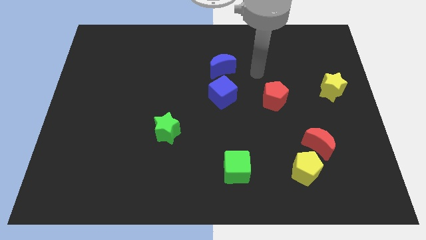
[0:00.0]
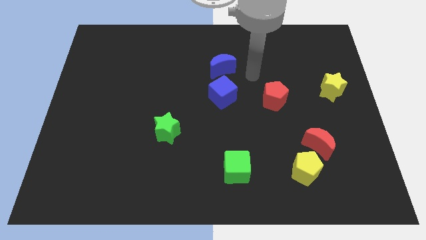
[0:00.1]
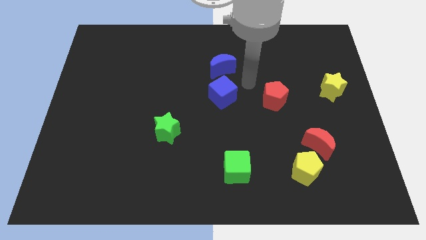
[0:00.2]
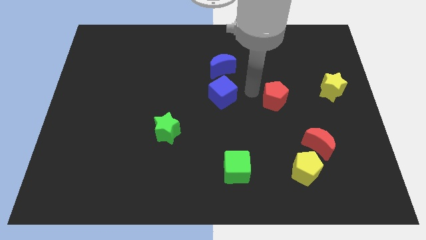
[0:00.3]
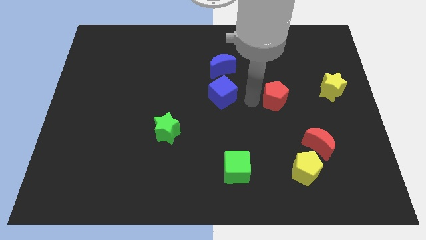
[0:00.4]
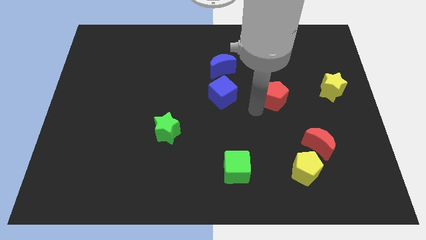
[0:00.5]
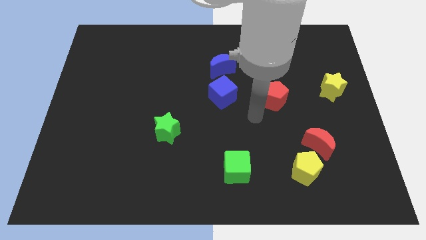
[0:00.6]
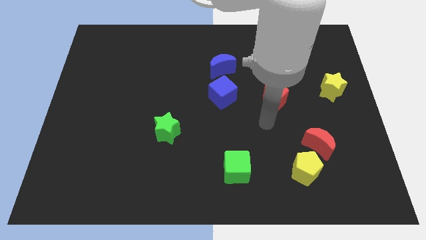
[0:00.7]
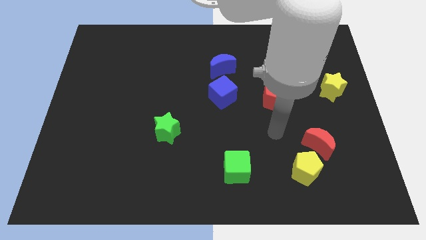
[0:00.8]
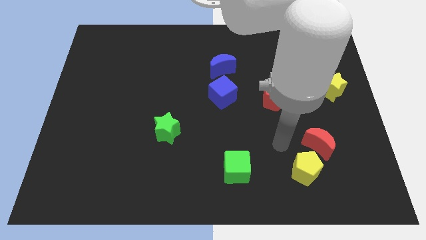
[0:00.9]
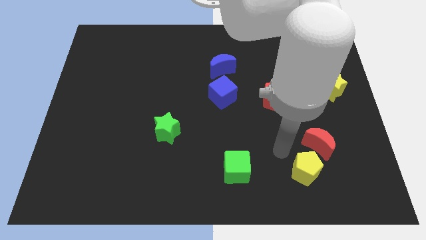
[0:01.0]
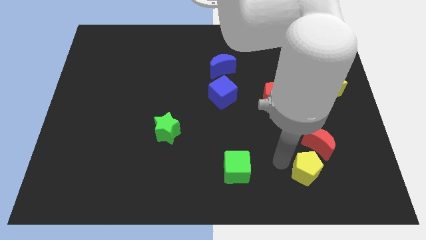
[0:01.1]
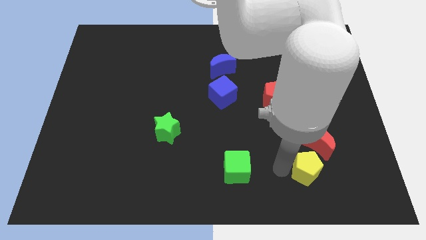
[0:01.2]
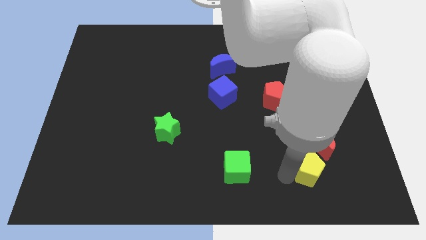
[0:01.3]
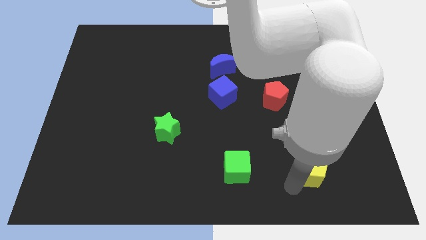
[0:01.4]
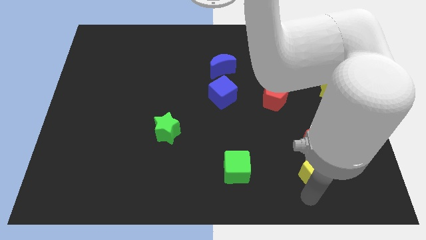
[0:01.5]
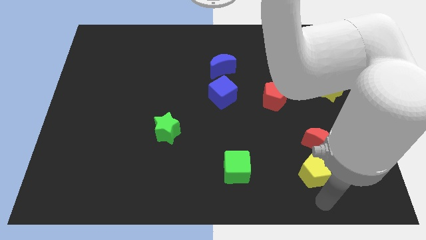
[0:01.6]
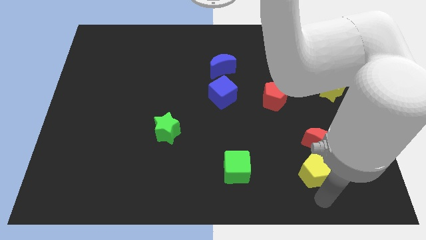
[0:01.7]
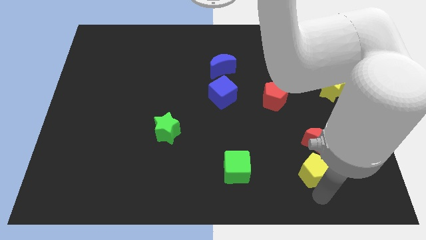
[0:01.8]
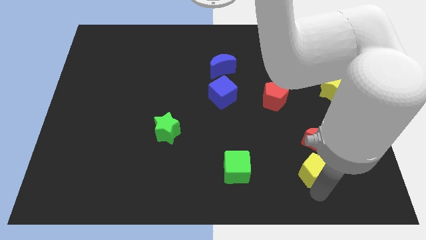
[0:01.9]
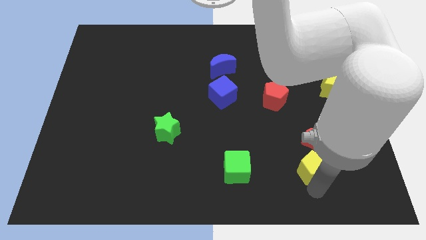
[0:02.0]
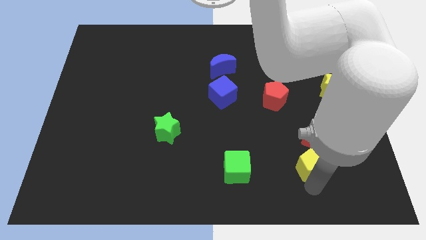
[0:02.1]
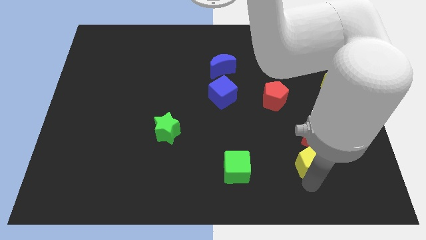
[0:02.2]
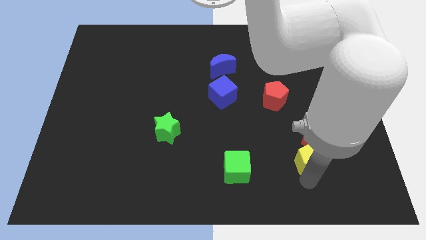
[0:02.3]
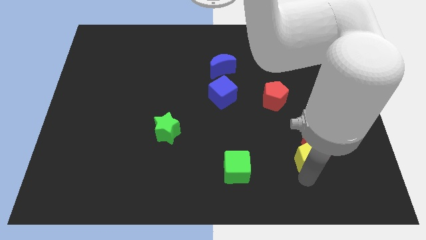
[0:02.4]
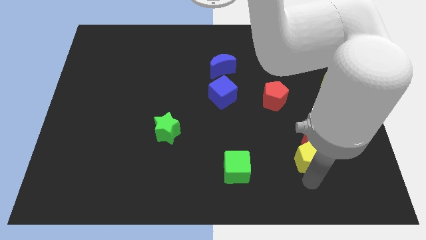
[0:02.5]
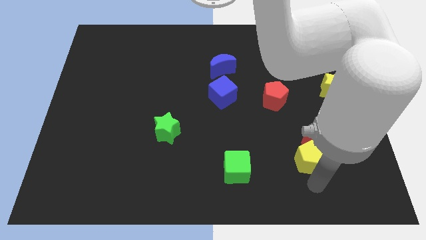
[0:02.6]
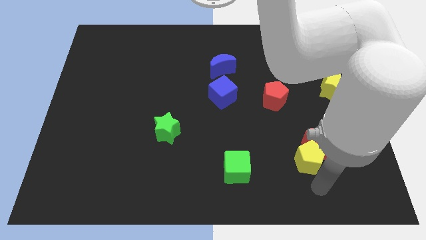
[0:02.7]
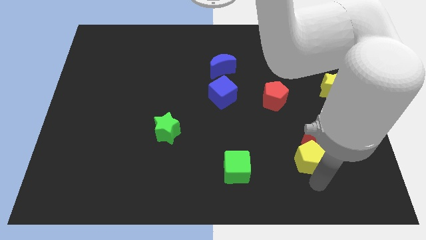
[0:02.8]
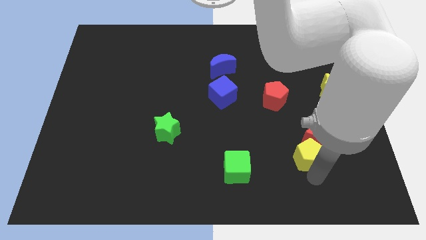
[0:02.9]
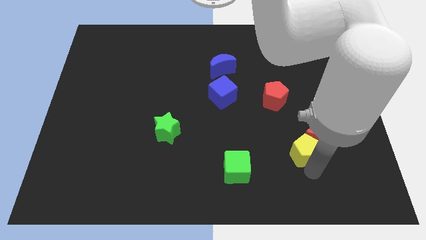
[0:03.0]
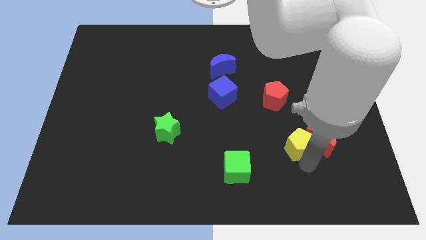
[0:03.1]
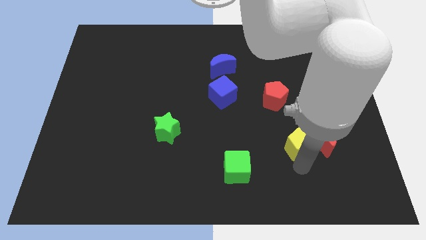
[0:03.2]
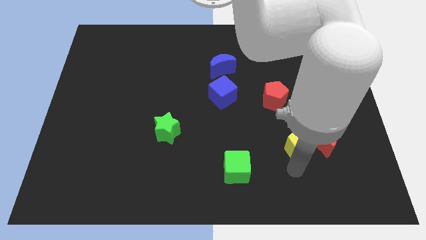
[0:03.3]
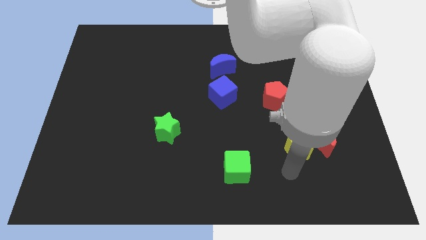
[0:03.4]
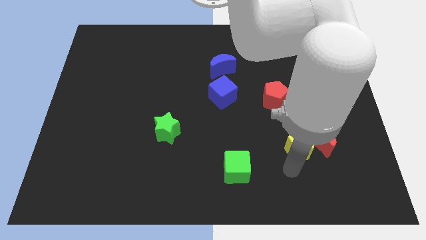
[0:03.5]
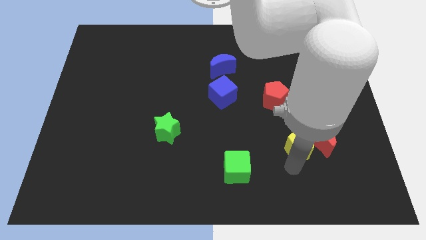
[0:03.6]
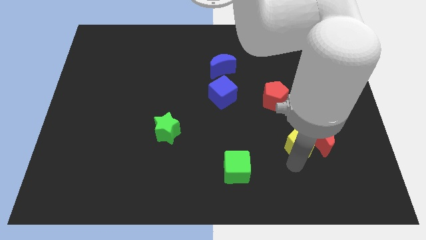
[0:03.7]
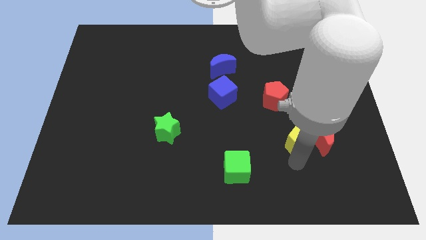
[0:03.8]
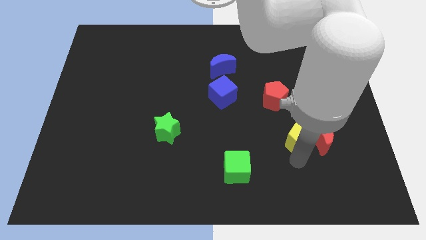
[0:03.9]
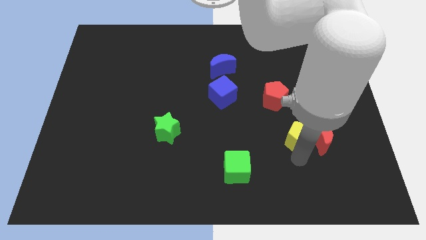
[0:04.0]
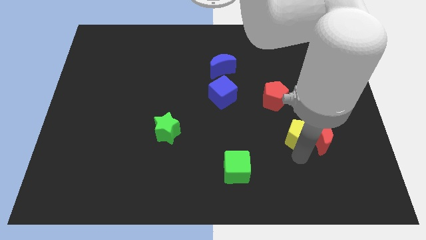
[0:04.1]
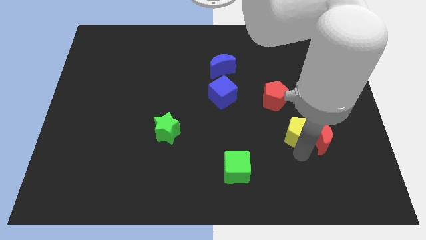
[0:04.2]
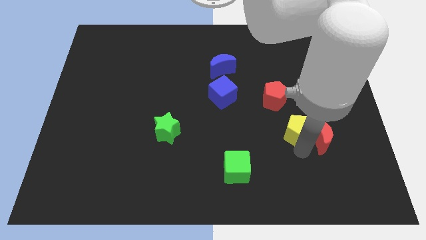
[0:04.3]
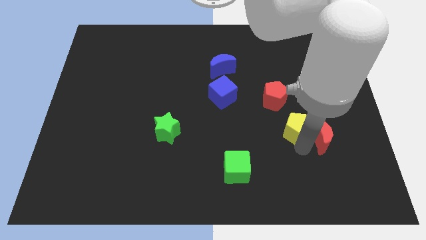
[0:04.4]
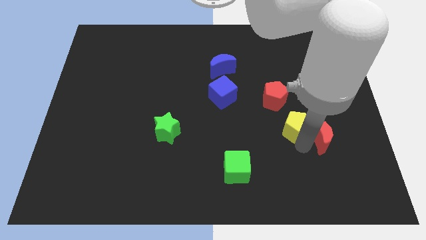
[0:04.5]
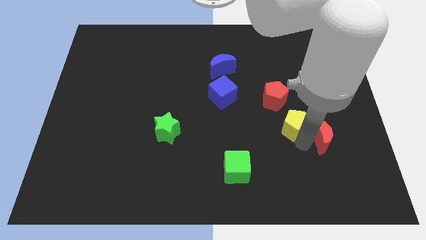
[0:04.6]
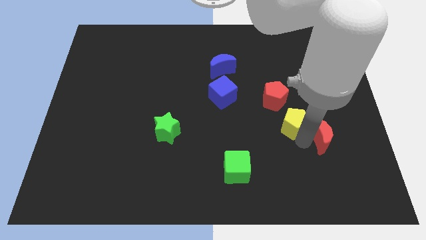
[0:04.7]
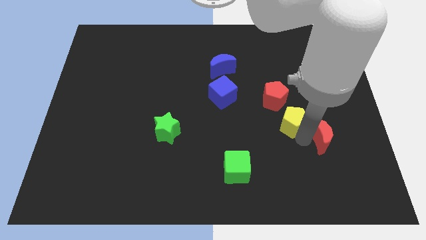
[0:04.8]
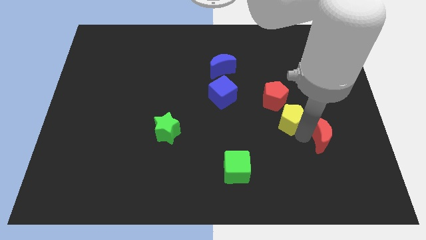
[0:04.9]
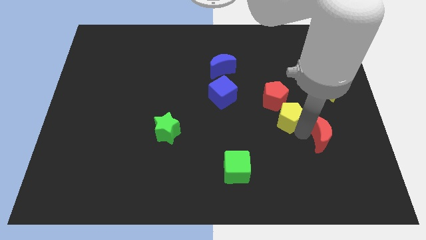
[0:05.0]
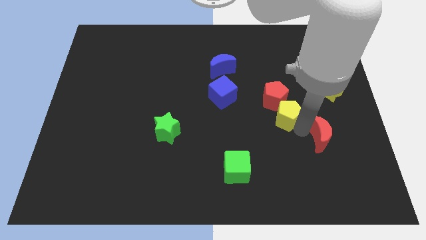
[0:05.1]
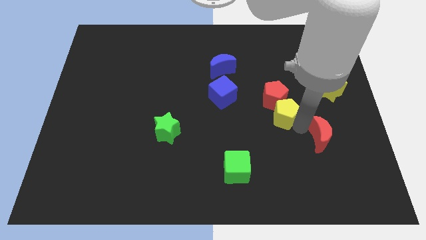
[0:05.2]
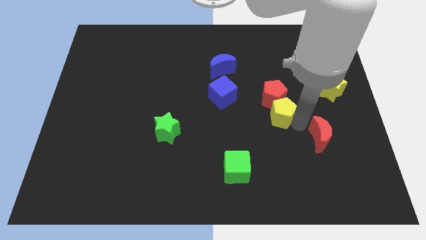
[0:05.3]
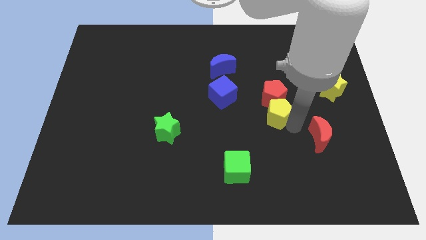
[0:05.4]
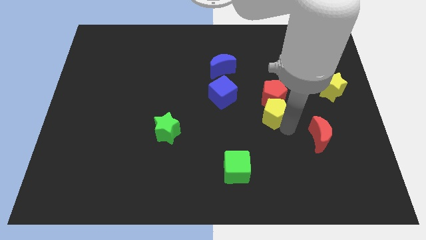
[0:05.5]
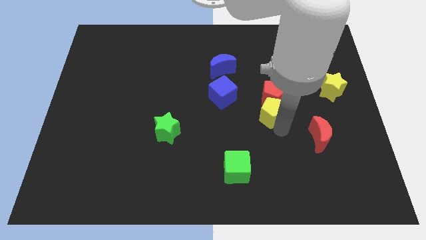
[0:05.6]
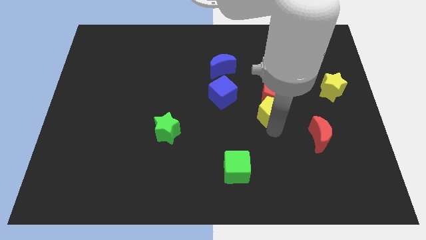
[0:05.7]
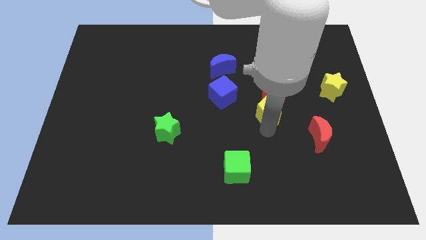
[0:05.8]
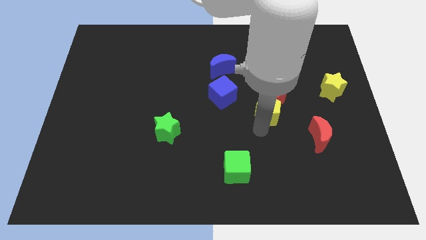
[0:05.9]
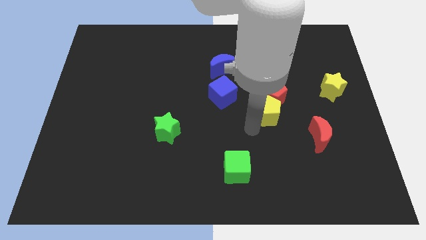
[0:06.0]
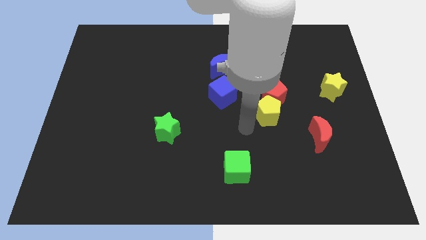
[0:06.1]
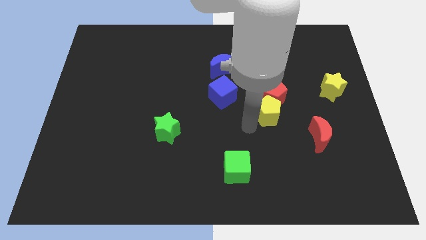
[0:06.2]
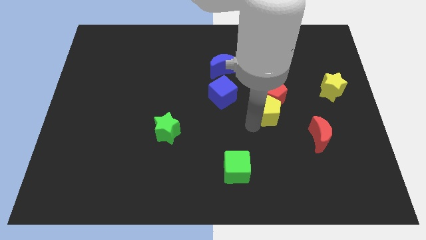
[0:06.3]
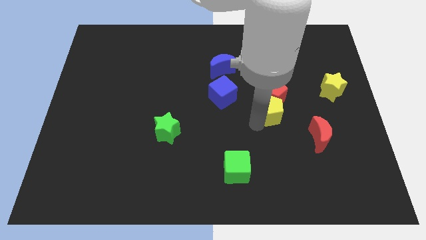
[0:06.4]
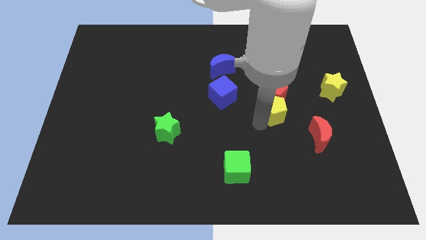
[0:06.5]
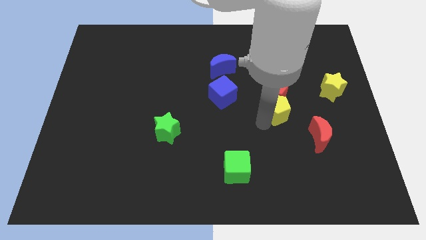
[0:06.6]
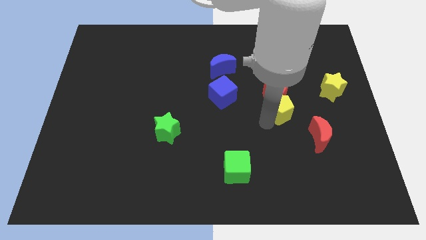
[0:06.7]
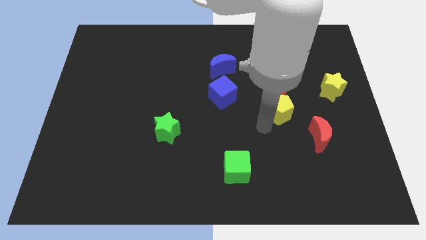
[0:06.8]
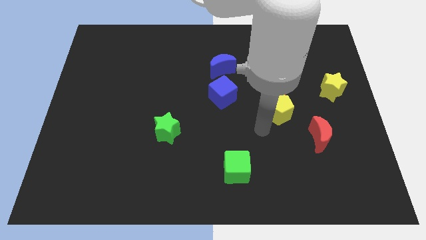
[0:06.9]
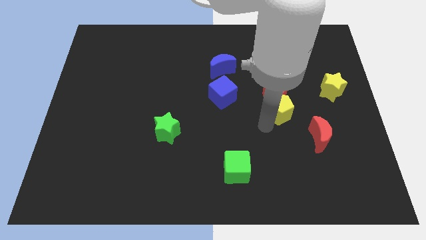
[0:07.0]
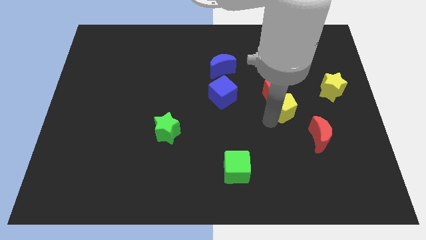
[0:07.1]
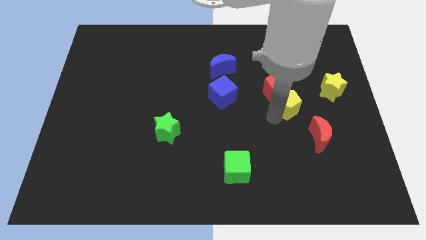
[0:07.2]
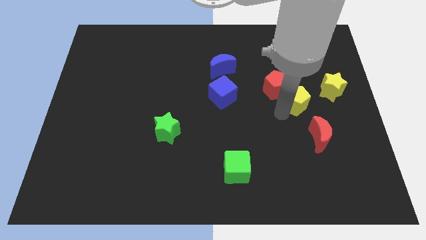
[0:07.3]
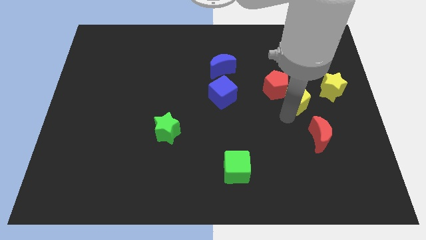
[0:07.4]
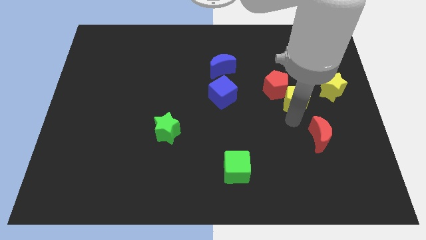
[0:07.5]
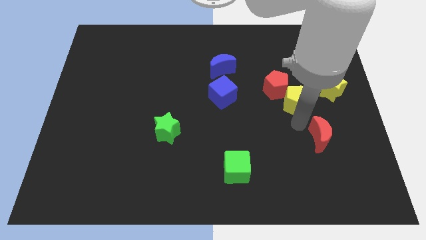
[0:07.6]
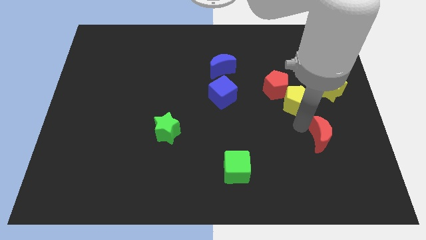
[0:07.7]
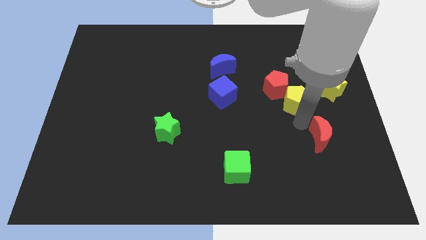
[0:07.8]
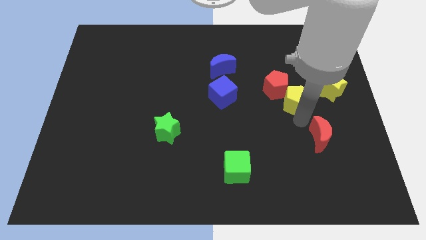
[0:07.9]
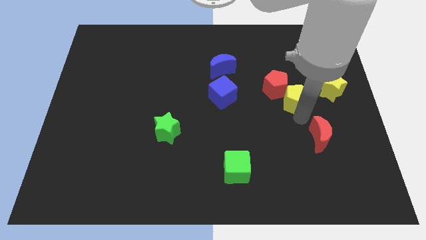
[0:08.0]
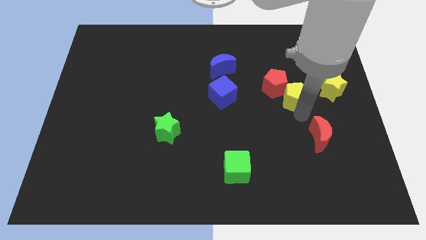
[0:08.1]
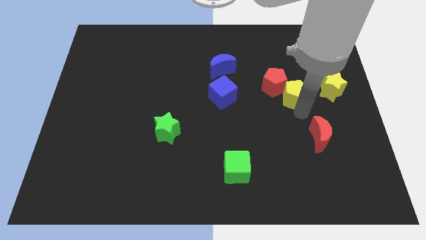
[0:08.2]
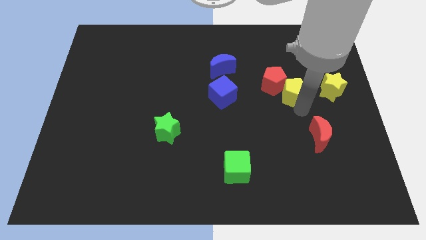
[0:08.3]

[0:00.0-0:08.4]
move the yellow pentagon upwards

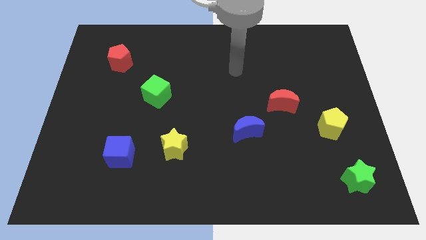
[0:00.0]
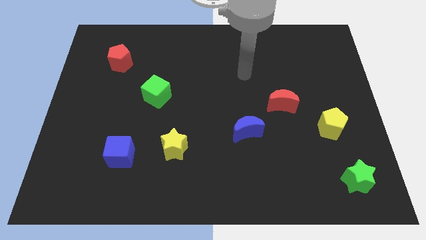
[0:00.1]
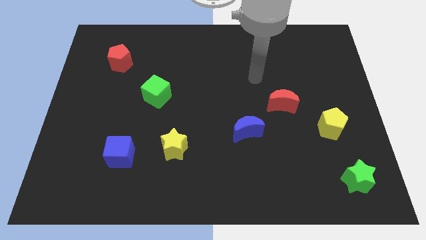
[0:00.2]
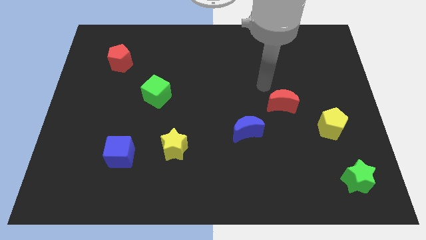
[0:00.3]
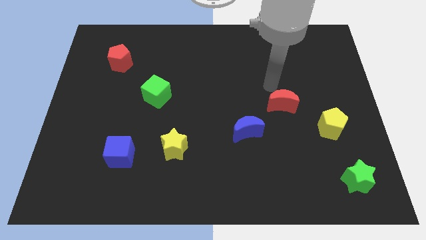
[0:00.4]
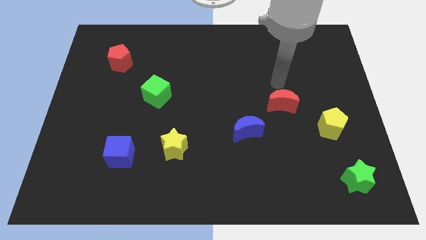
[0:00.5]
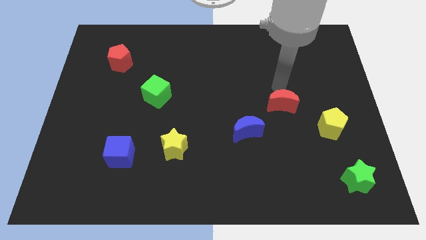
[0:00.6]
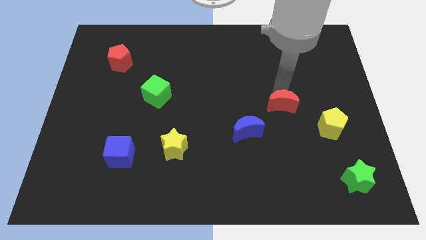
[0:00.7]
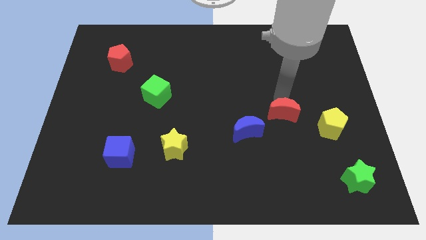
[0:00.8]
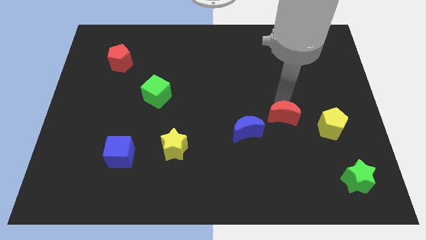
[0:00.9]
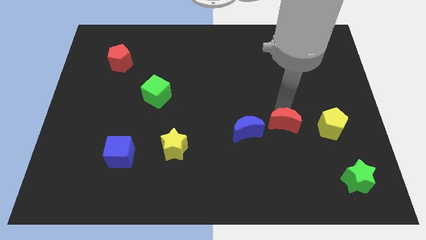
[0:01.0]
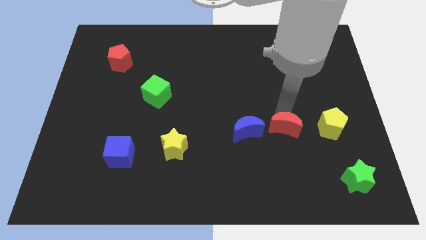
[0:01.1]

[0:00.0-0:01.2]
slightly move the red moon downwards
